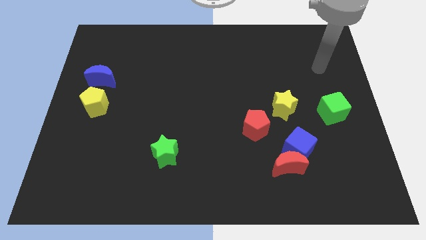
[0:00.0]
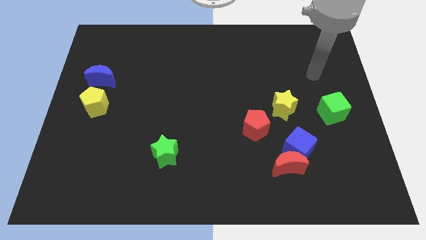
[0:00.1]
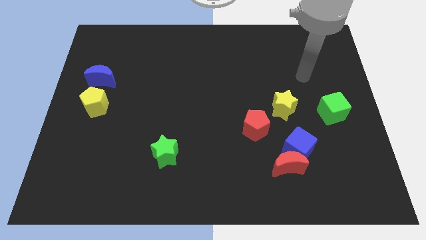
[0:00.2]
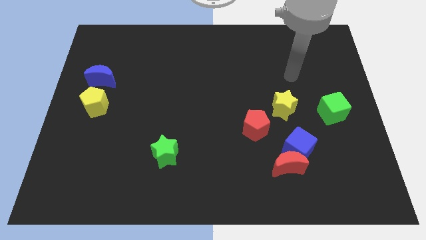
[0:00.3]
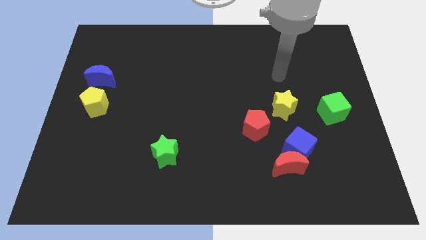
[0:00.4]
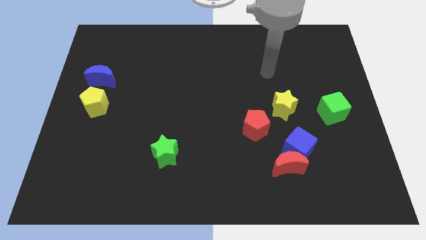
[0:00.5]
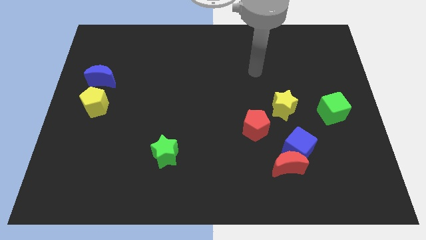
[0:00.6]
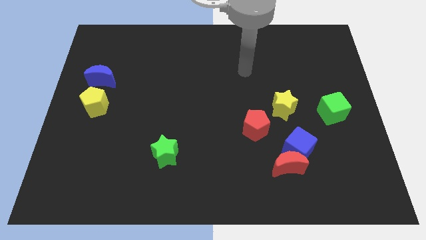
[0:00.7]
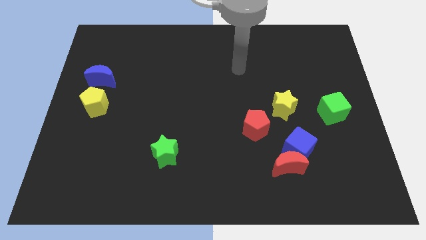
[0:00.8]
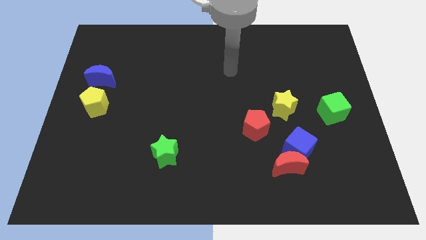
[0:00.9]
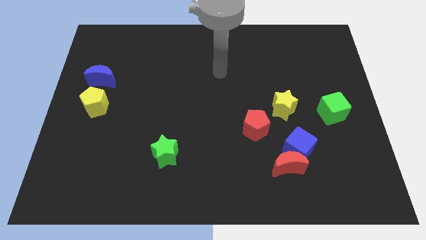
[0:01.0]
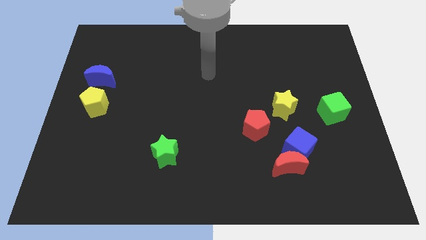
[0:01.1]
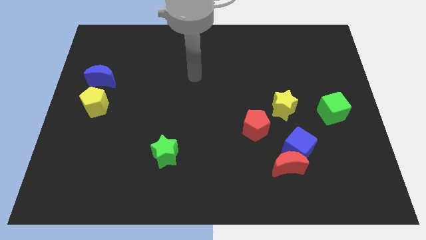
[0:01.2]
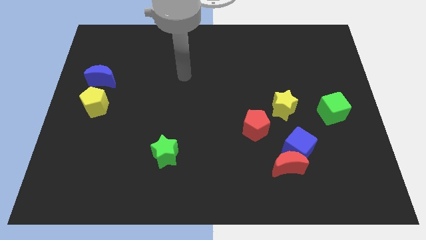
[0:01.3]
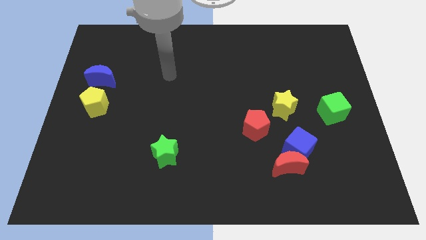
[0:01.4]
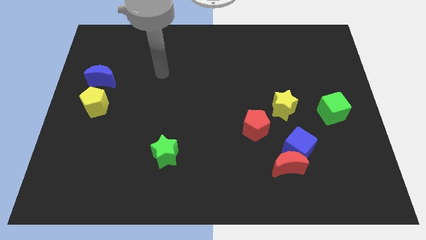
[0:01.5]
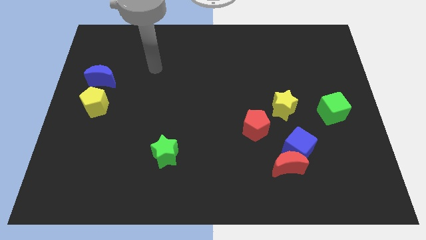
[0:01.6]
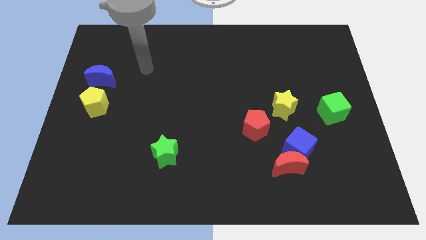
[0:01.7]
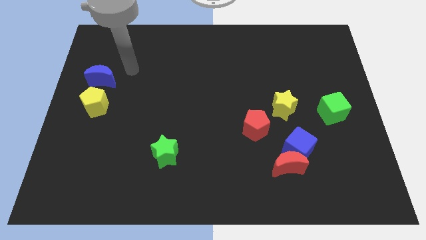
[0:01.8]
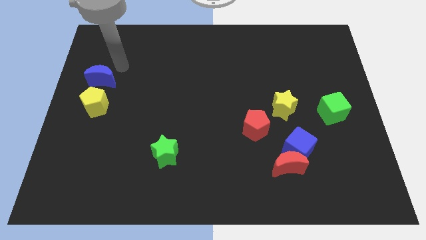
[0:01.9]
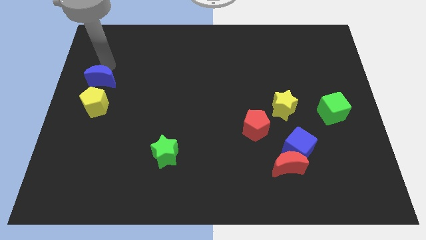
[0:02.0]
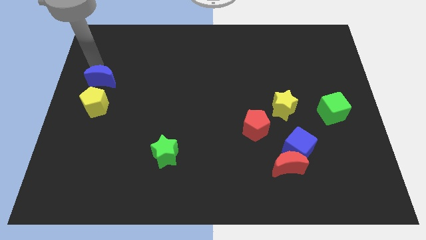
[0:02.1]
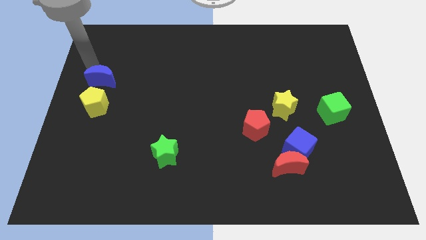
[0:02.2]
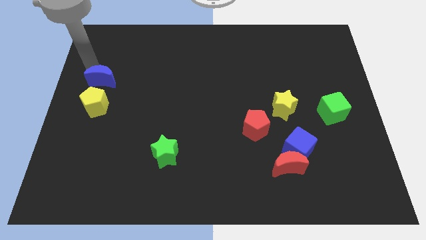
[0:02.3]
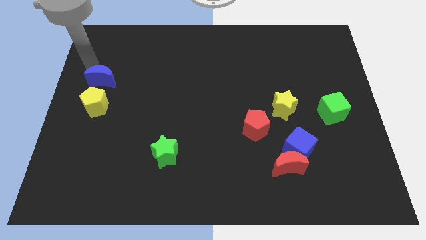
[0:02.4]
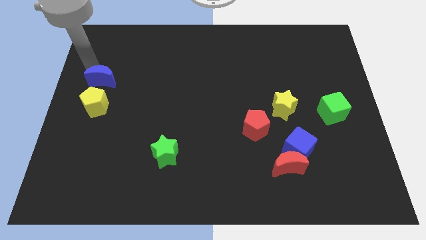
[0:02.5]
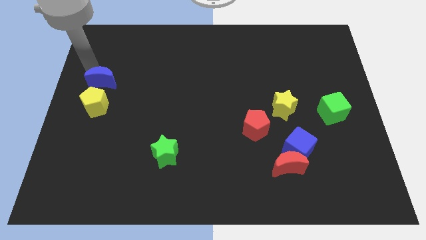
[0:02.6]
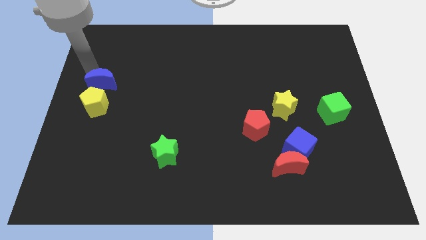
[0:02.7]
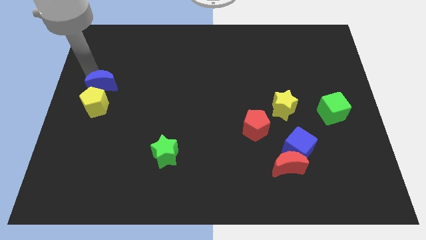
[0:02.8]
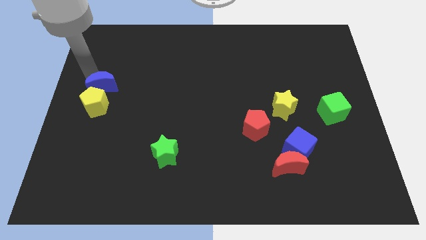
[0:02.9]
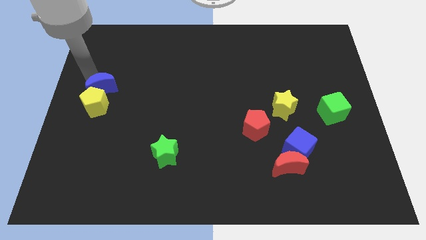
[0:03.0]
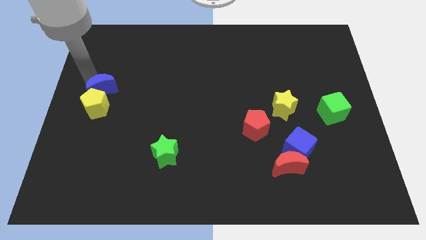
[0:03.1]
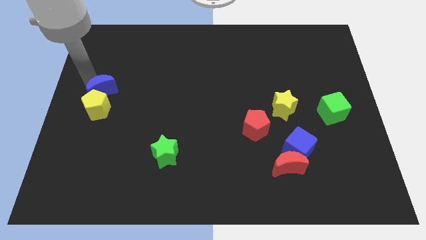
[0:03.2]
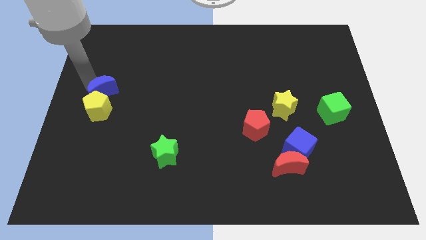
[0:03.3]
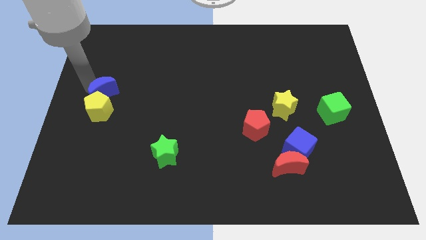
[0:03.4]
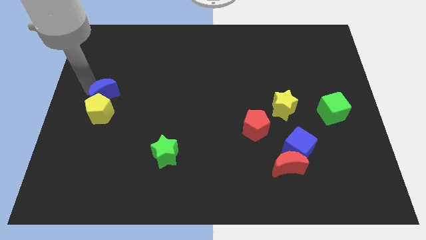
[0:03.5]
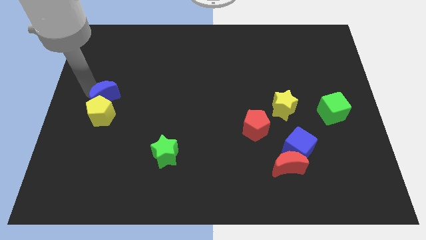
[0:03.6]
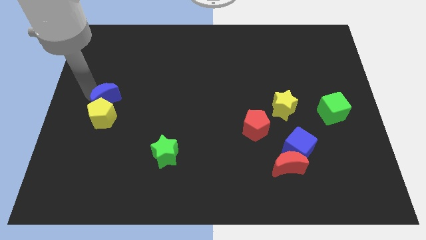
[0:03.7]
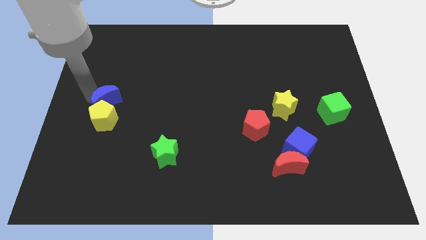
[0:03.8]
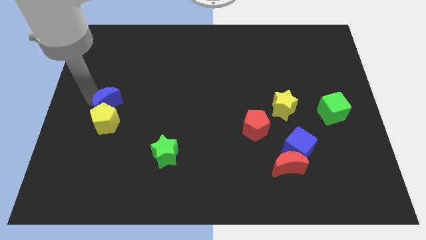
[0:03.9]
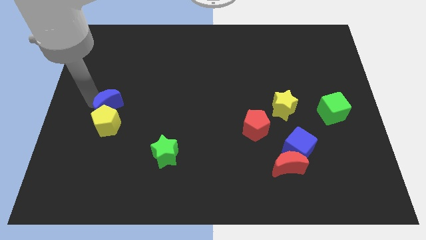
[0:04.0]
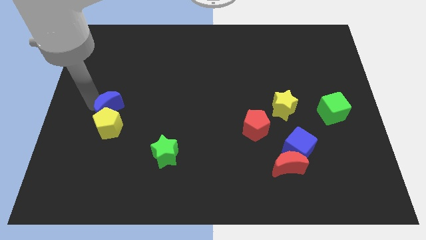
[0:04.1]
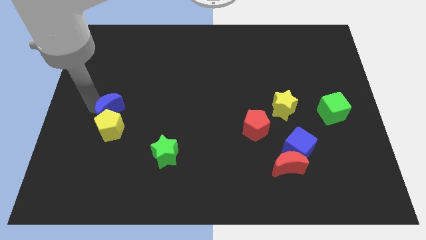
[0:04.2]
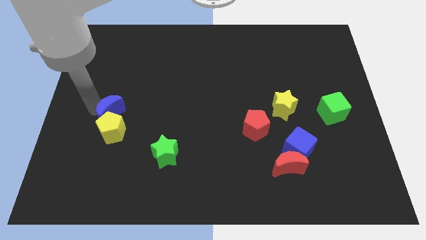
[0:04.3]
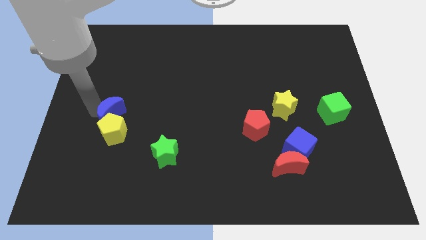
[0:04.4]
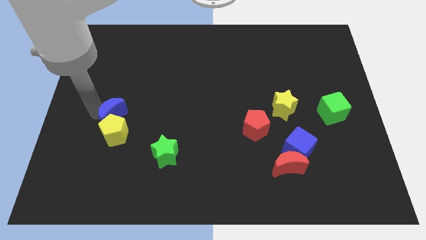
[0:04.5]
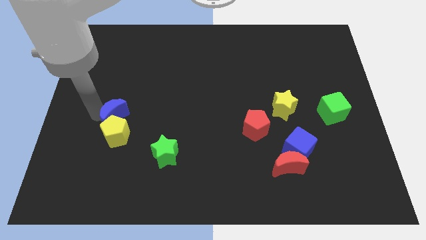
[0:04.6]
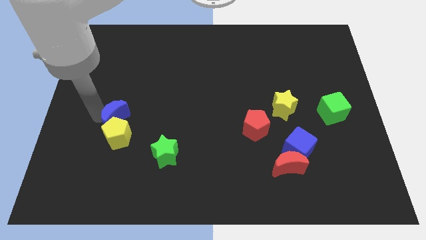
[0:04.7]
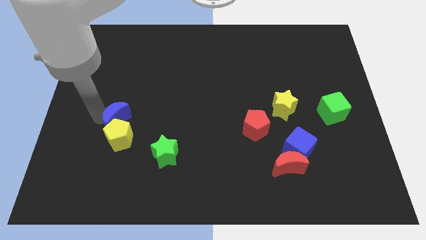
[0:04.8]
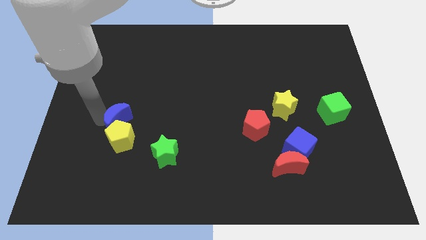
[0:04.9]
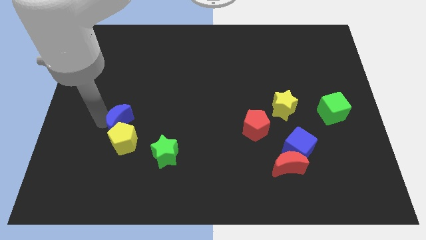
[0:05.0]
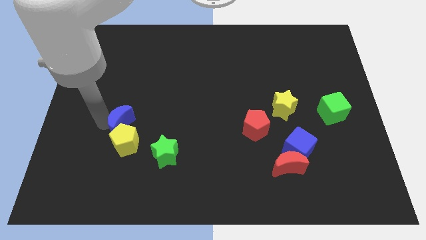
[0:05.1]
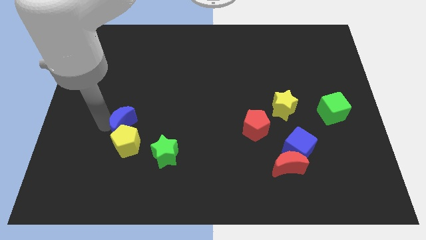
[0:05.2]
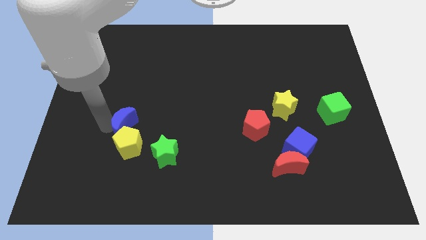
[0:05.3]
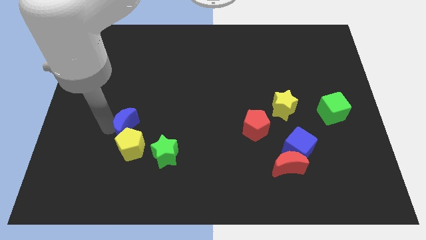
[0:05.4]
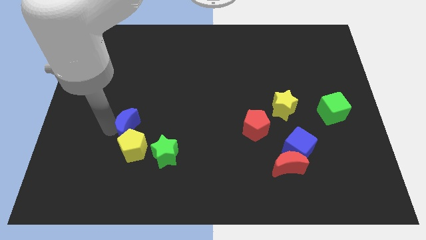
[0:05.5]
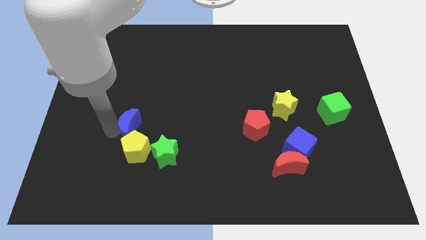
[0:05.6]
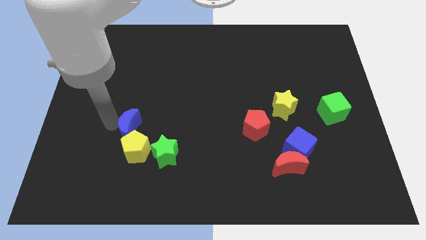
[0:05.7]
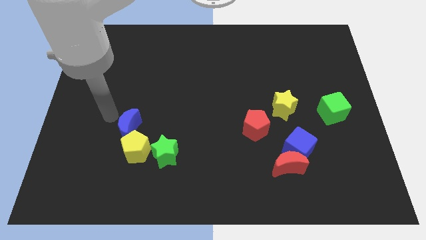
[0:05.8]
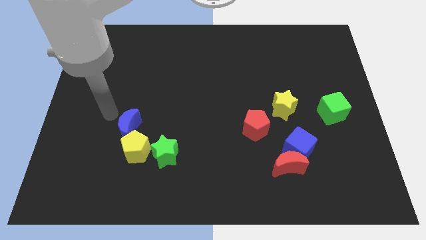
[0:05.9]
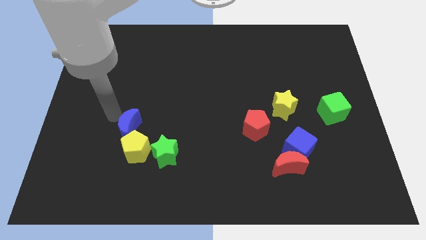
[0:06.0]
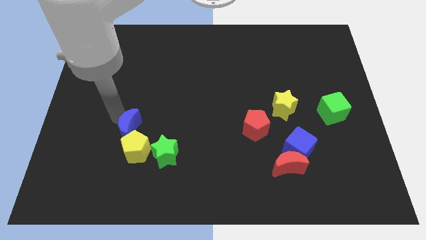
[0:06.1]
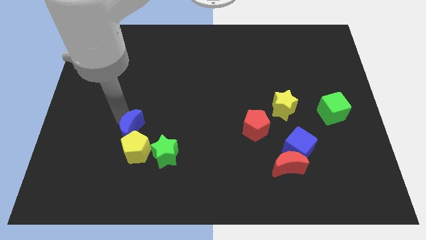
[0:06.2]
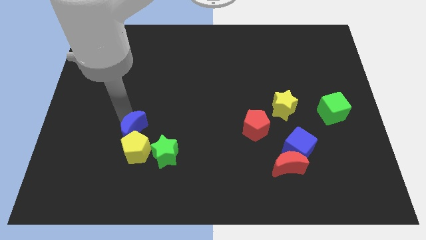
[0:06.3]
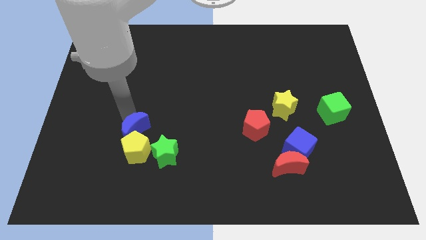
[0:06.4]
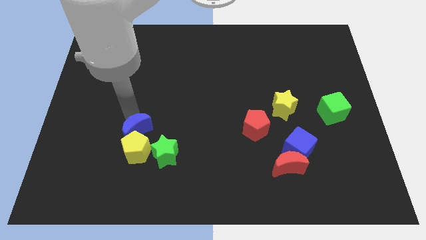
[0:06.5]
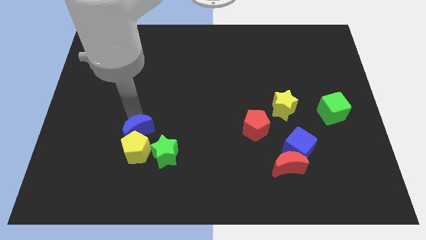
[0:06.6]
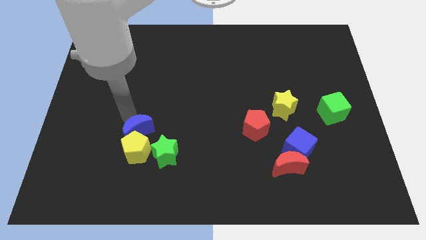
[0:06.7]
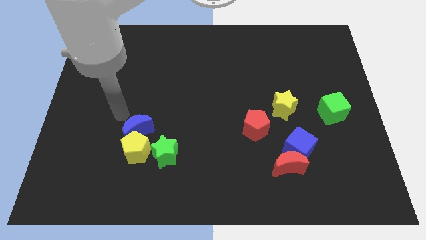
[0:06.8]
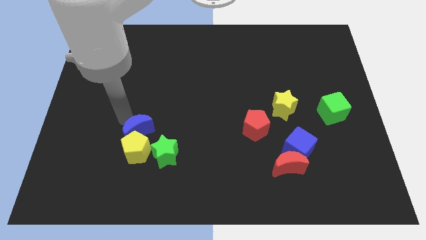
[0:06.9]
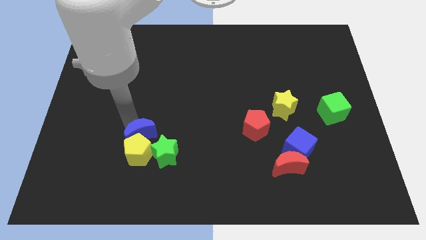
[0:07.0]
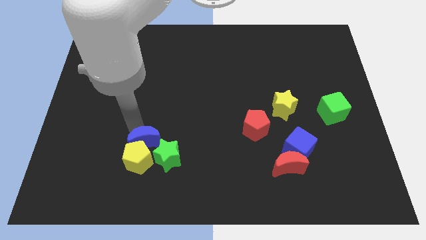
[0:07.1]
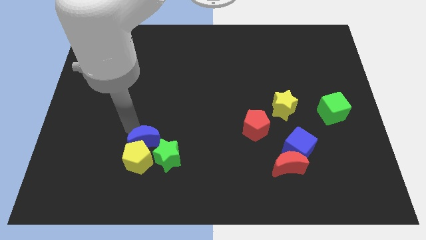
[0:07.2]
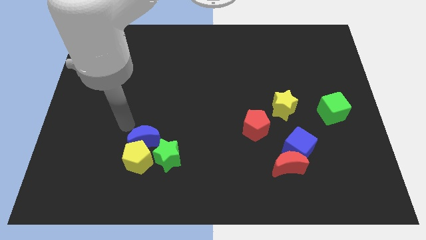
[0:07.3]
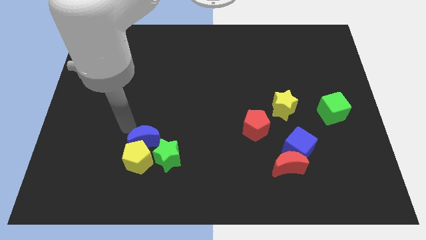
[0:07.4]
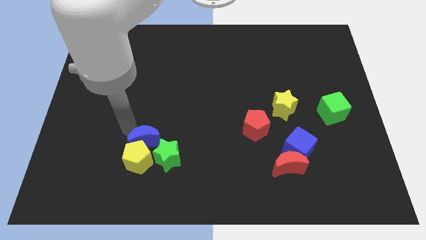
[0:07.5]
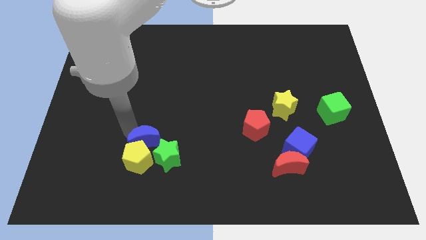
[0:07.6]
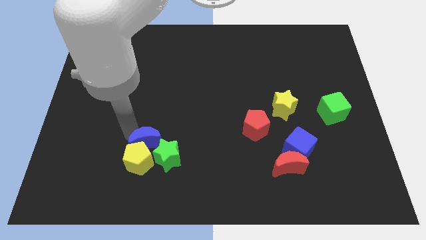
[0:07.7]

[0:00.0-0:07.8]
slide the blue moon towards the green star
